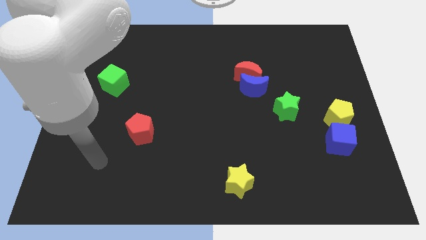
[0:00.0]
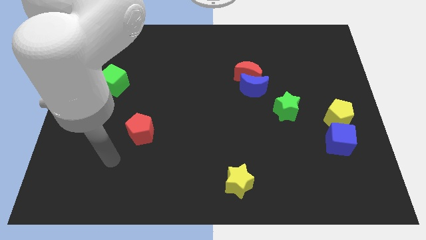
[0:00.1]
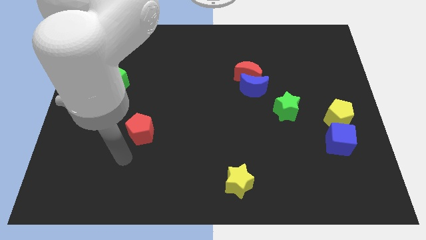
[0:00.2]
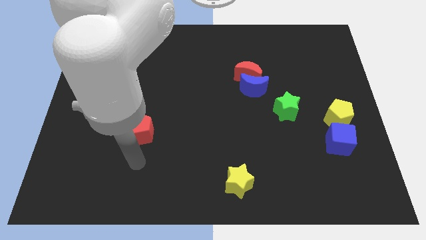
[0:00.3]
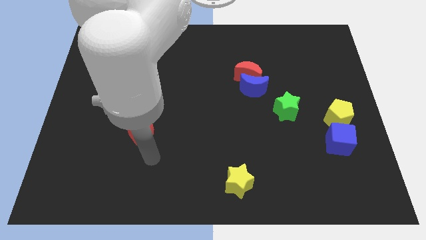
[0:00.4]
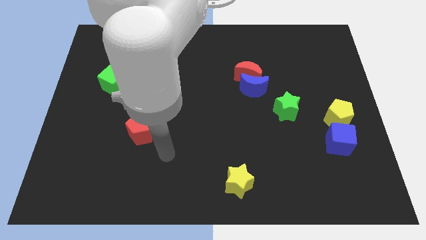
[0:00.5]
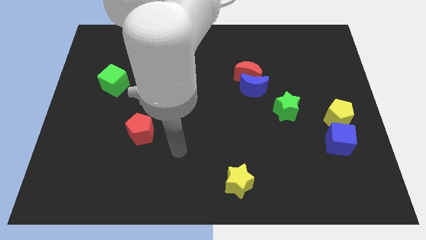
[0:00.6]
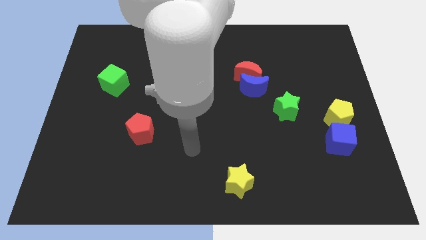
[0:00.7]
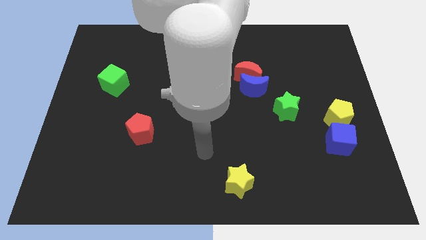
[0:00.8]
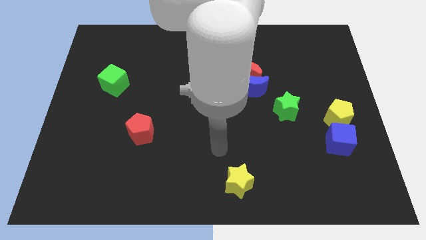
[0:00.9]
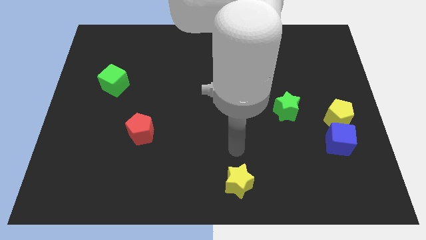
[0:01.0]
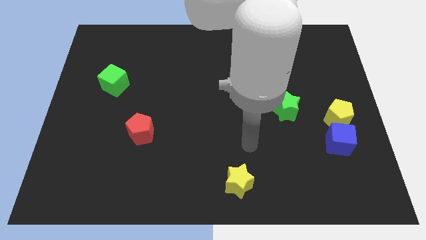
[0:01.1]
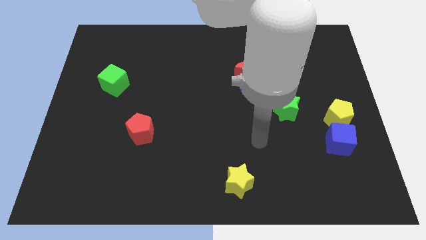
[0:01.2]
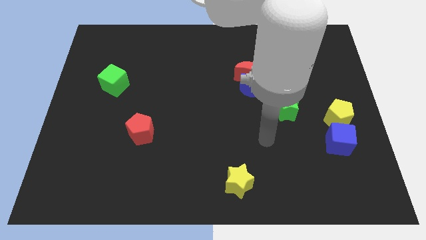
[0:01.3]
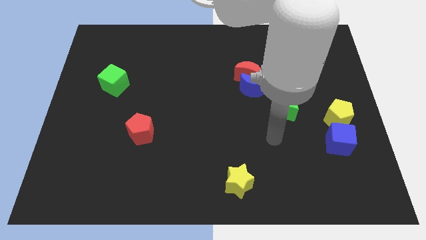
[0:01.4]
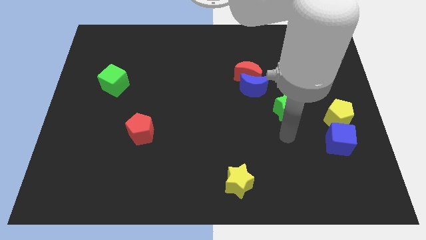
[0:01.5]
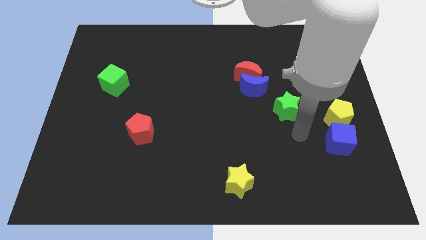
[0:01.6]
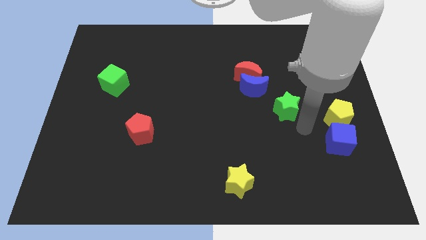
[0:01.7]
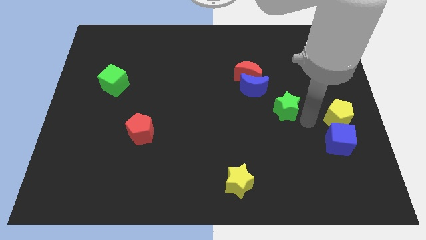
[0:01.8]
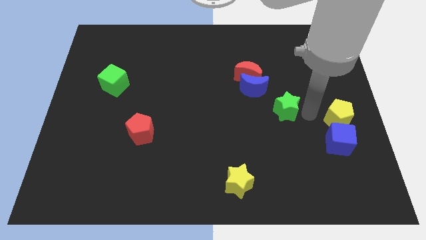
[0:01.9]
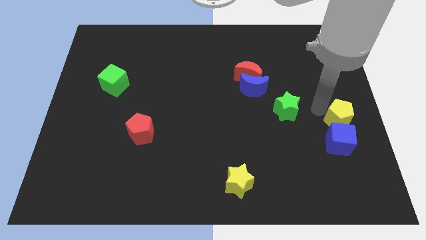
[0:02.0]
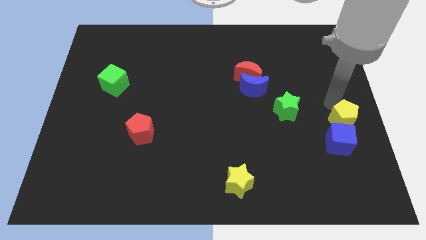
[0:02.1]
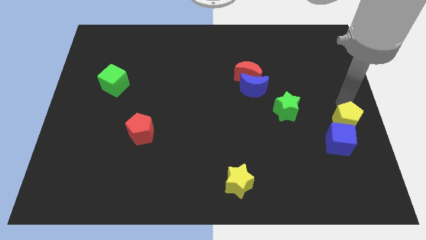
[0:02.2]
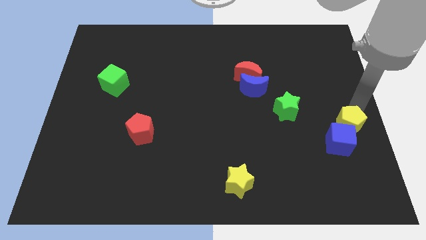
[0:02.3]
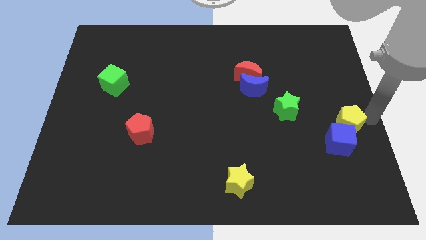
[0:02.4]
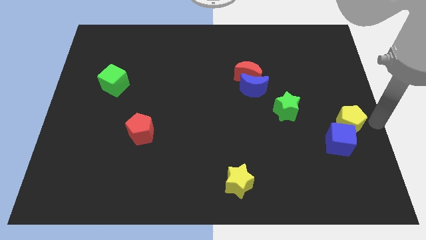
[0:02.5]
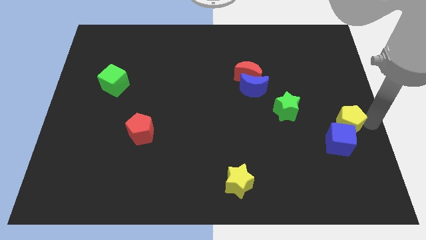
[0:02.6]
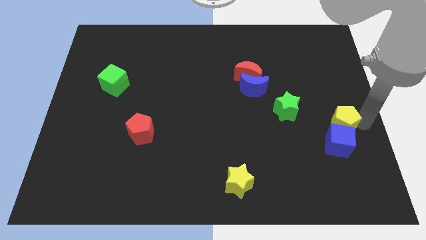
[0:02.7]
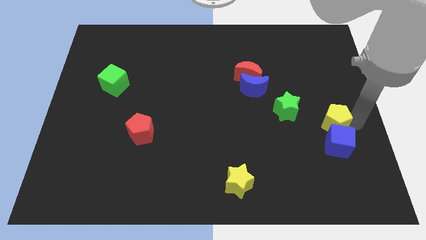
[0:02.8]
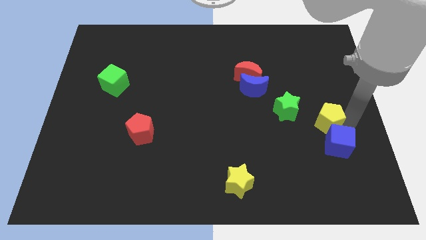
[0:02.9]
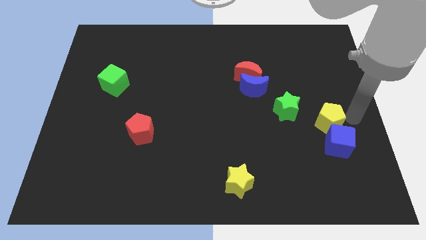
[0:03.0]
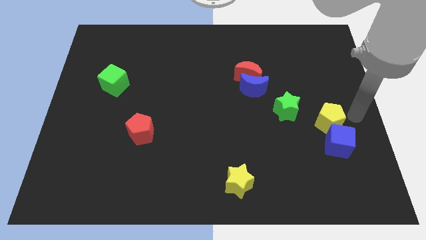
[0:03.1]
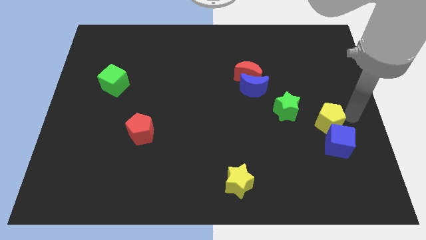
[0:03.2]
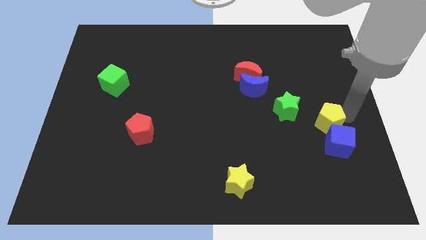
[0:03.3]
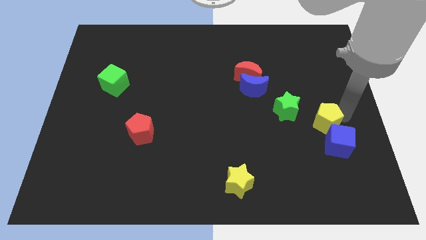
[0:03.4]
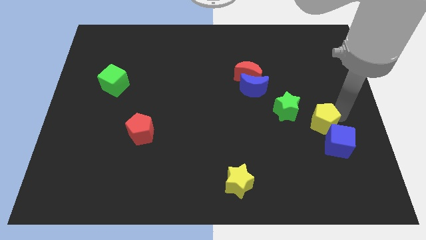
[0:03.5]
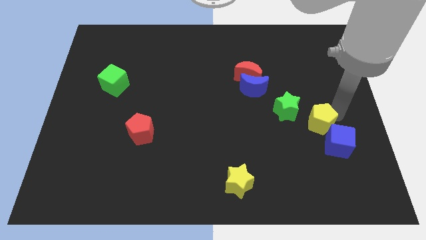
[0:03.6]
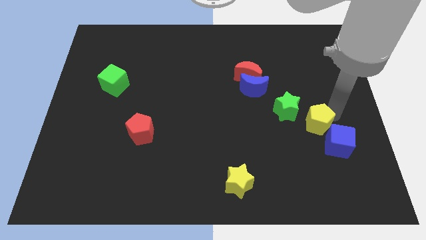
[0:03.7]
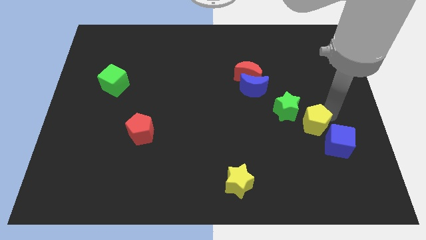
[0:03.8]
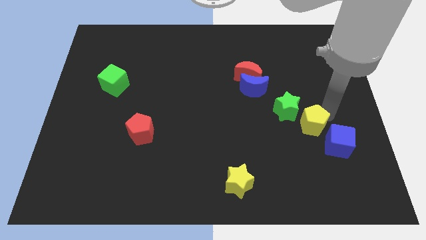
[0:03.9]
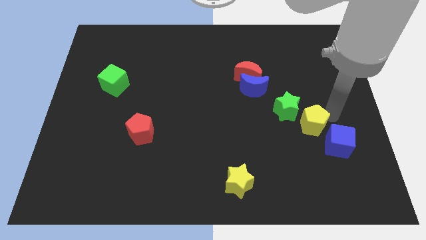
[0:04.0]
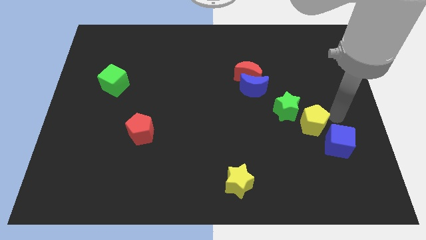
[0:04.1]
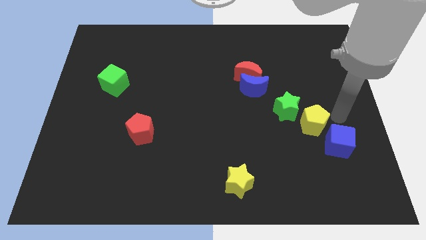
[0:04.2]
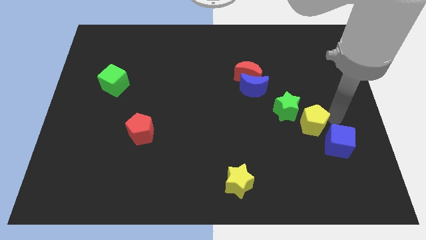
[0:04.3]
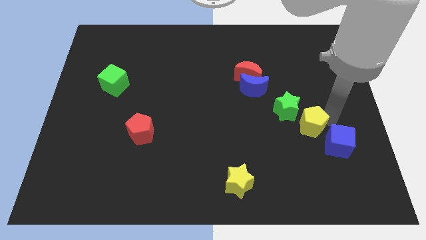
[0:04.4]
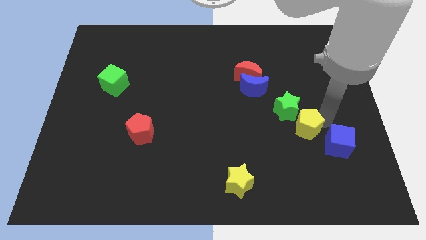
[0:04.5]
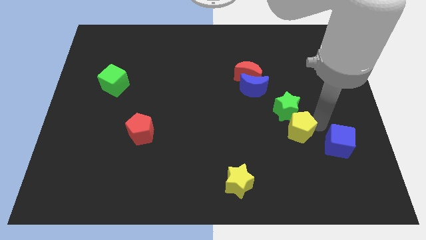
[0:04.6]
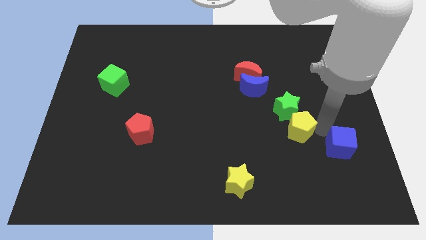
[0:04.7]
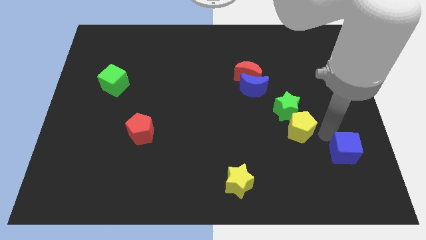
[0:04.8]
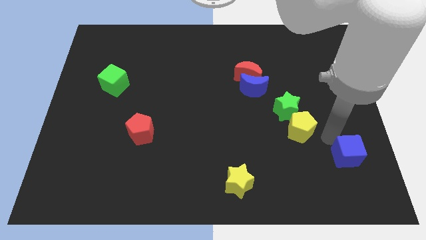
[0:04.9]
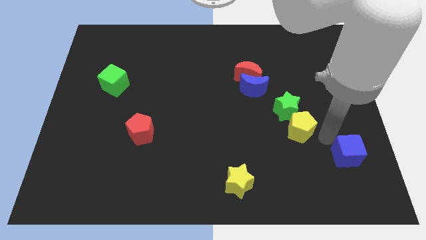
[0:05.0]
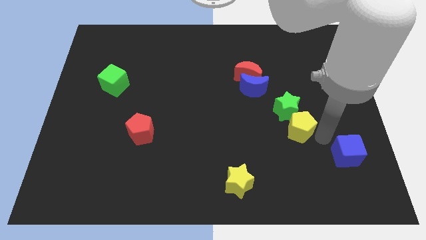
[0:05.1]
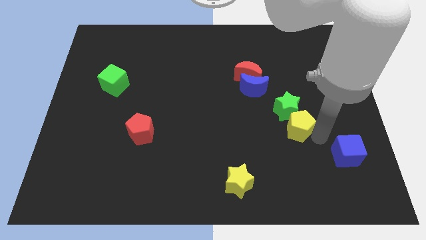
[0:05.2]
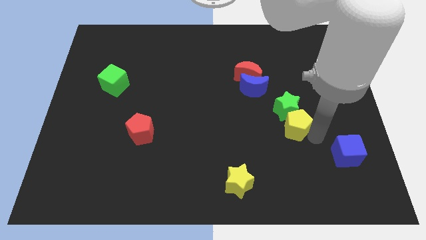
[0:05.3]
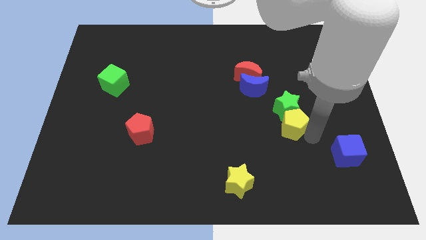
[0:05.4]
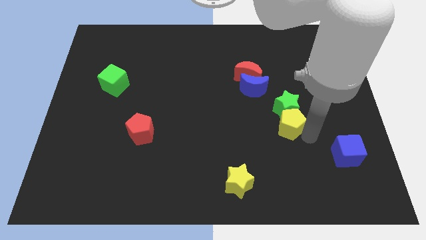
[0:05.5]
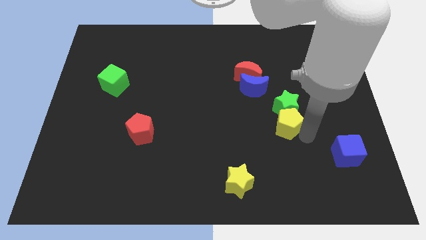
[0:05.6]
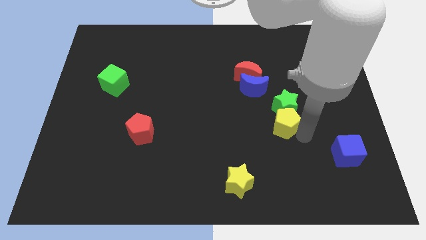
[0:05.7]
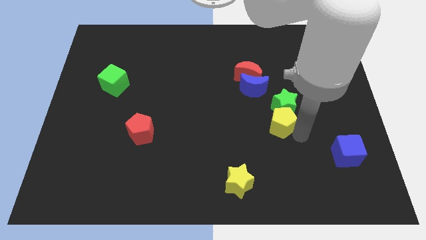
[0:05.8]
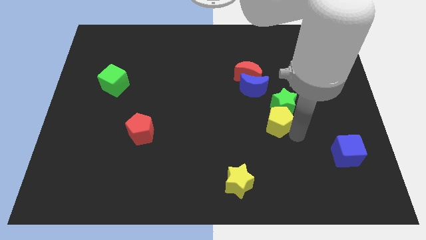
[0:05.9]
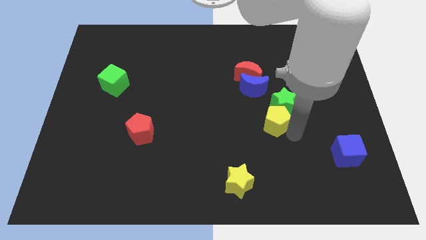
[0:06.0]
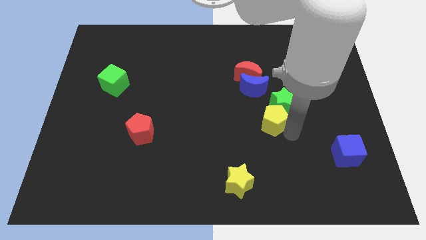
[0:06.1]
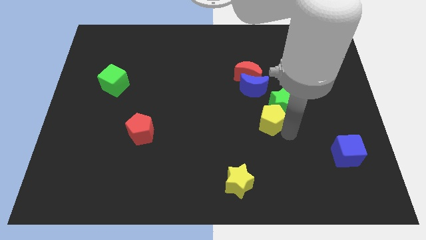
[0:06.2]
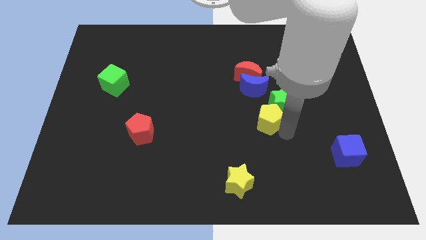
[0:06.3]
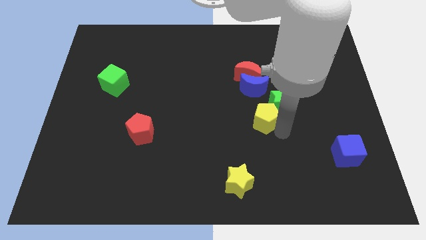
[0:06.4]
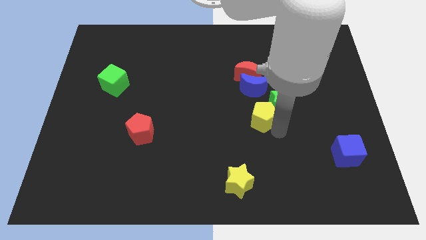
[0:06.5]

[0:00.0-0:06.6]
slide the yellow pentagon to the middle of the board
